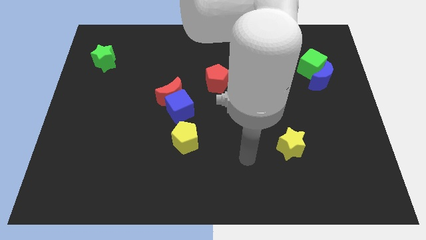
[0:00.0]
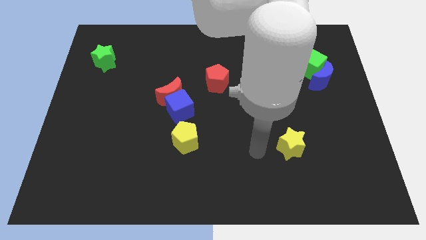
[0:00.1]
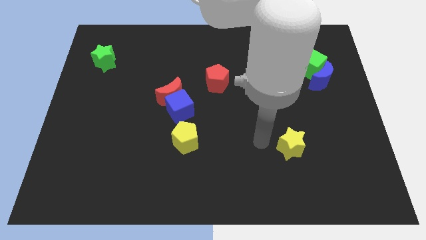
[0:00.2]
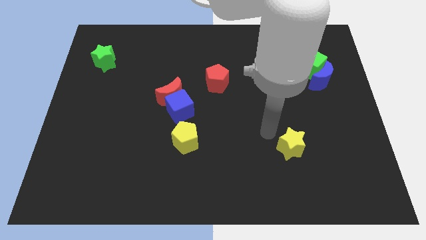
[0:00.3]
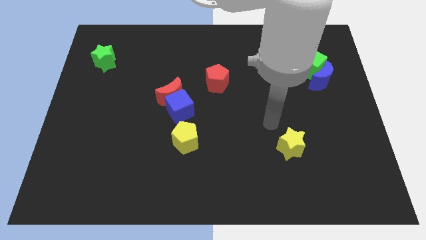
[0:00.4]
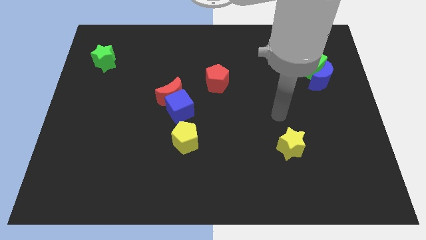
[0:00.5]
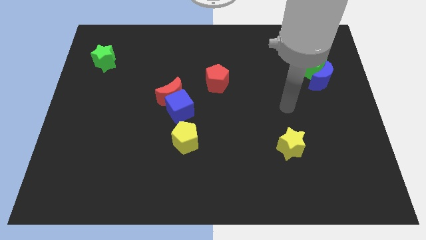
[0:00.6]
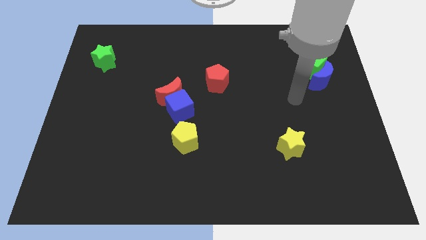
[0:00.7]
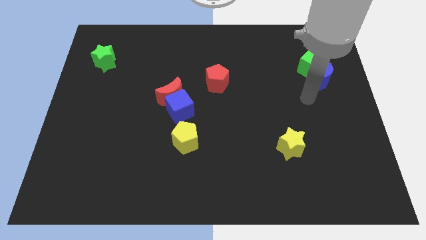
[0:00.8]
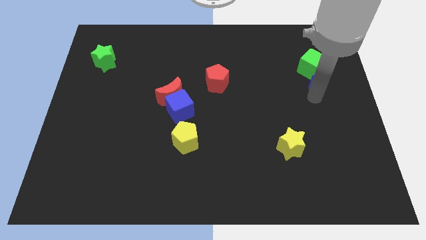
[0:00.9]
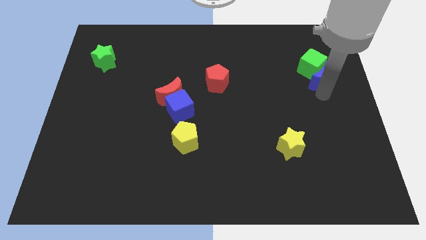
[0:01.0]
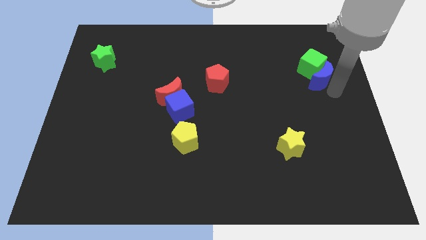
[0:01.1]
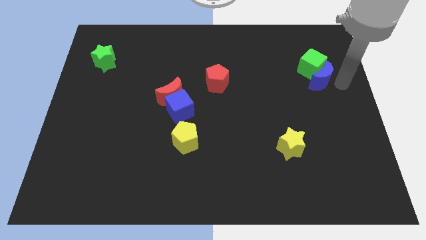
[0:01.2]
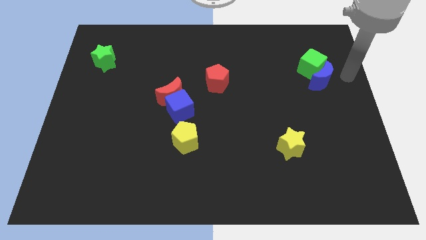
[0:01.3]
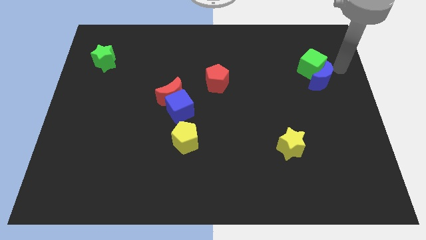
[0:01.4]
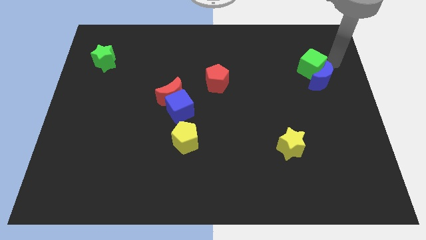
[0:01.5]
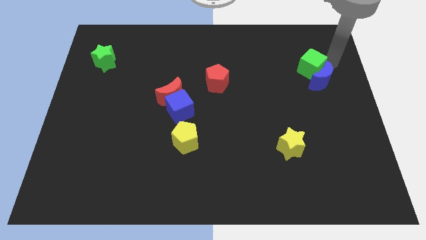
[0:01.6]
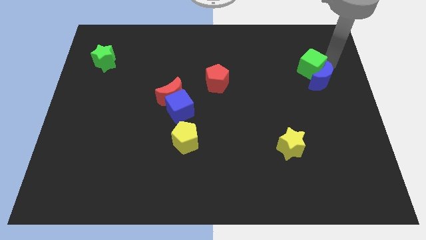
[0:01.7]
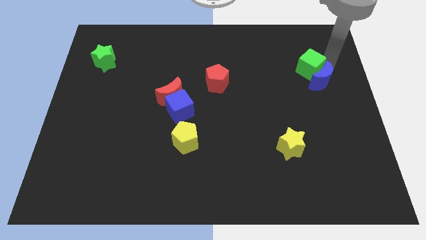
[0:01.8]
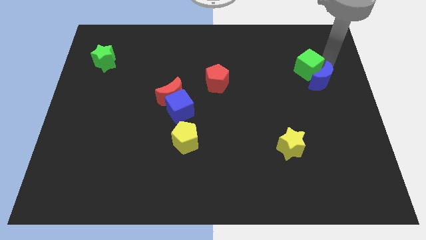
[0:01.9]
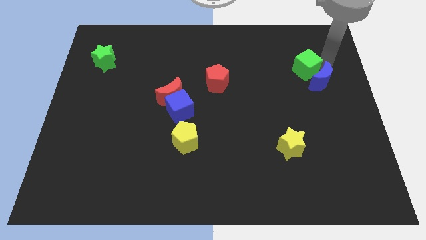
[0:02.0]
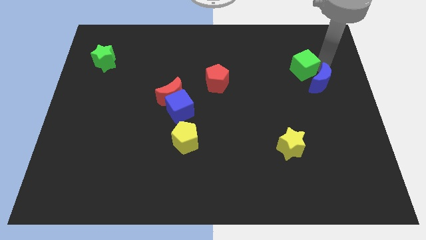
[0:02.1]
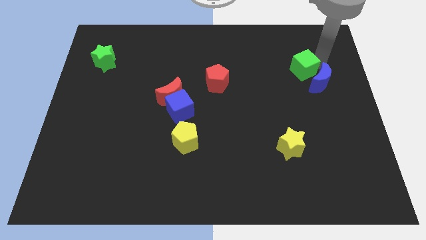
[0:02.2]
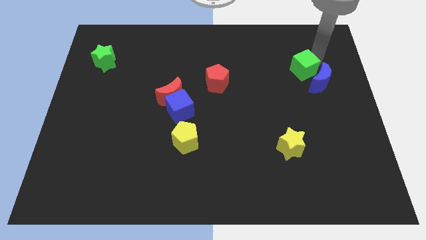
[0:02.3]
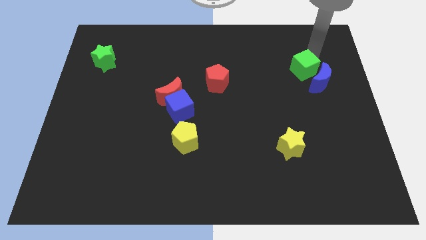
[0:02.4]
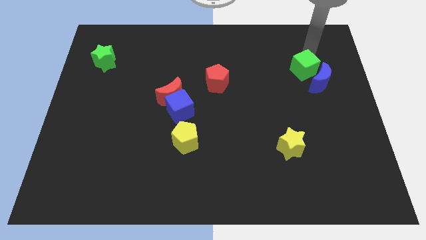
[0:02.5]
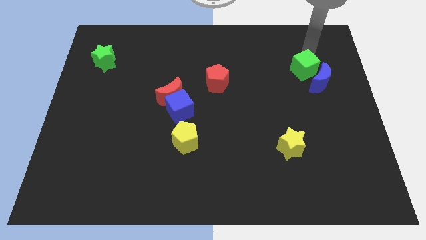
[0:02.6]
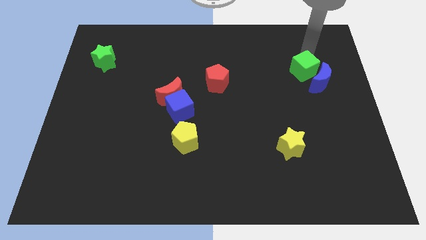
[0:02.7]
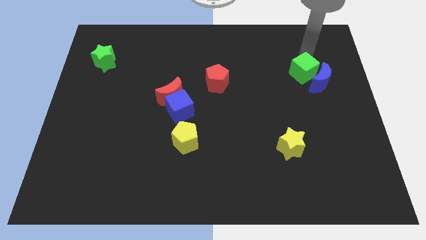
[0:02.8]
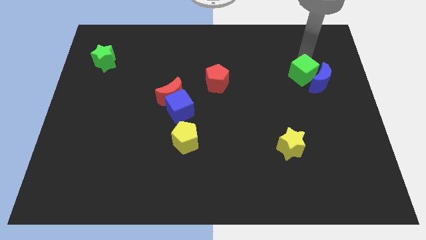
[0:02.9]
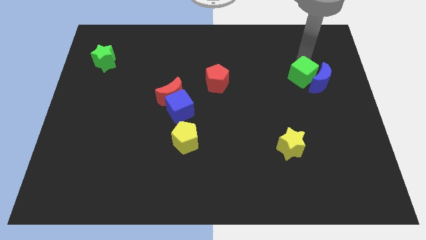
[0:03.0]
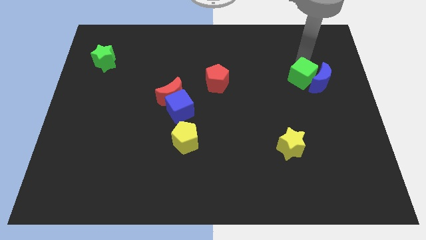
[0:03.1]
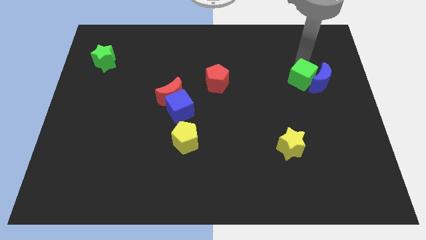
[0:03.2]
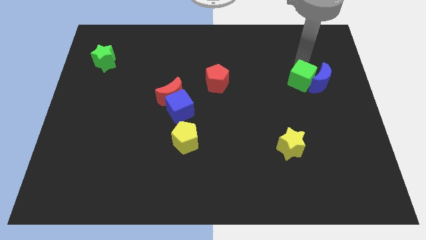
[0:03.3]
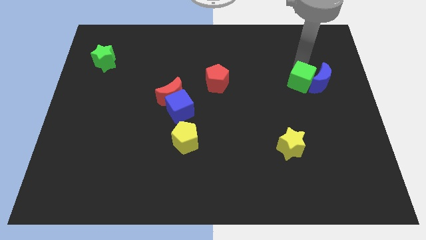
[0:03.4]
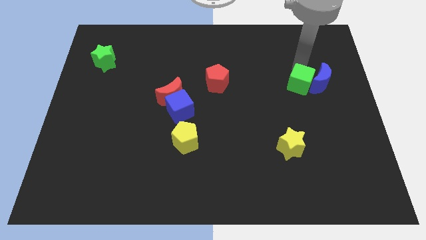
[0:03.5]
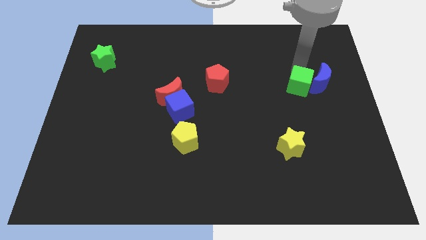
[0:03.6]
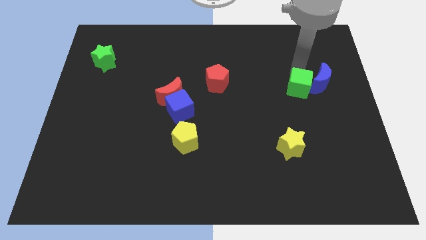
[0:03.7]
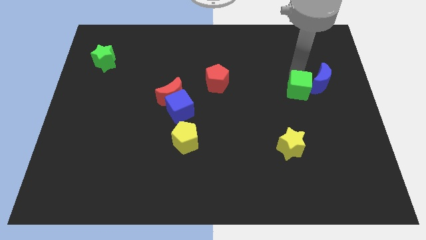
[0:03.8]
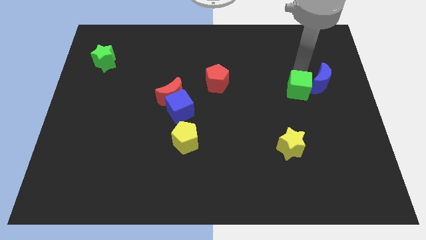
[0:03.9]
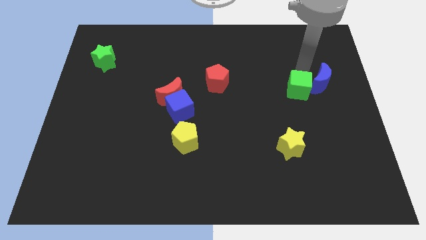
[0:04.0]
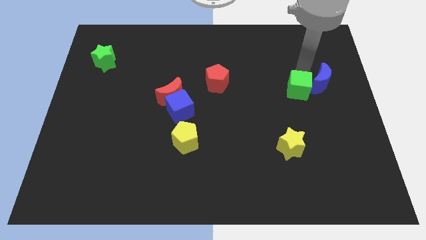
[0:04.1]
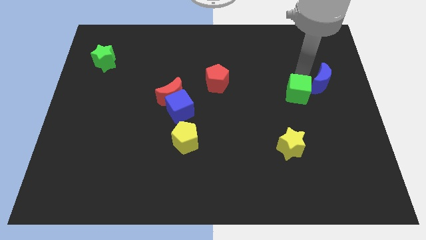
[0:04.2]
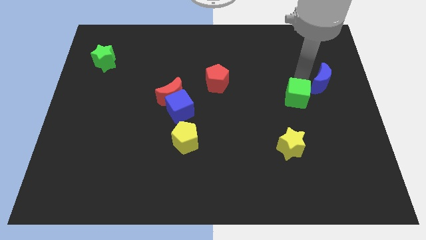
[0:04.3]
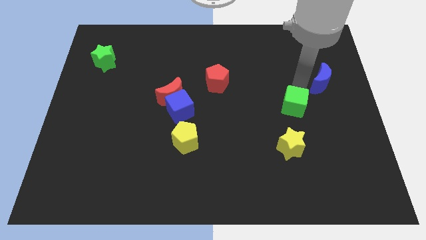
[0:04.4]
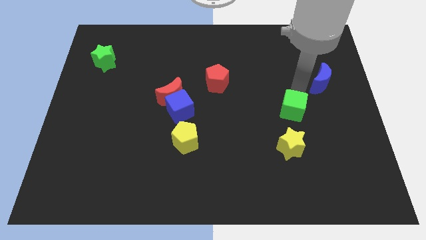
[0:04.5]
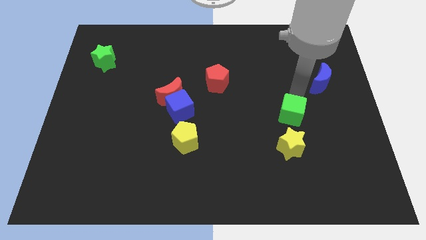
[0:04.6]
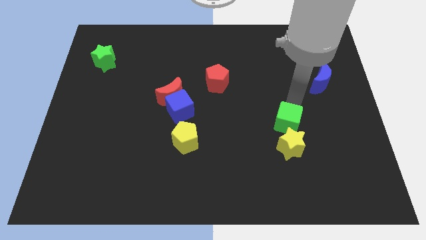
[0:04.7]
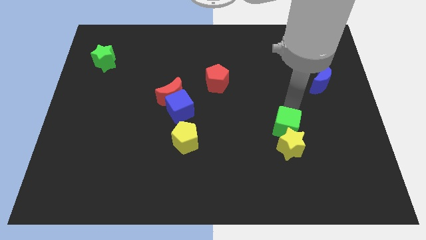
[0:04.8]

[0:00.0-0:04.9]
put the green cube towards the yellow star

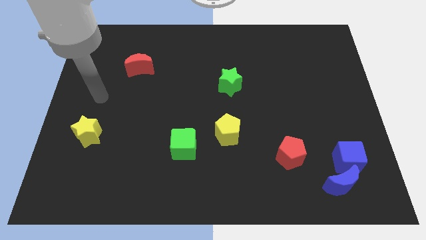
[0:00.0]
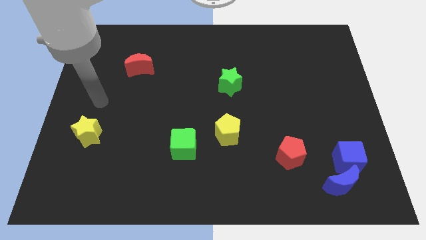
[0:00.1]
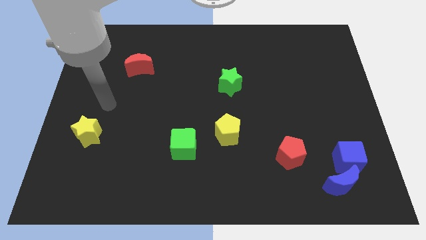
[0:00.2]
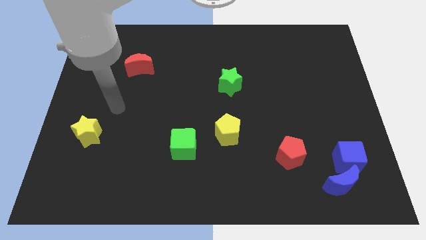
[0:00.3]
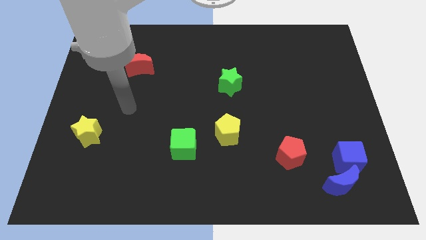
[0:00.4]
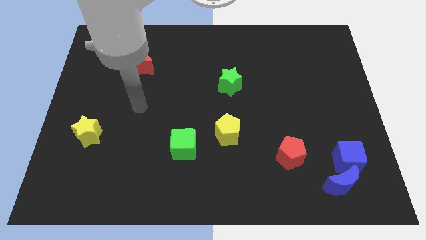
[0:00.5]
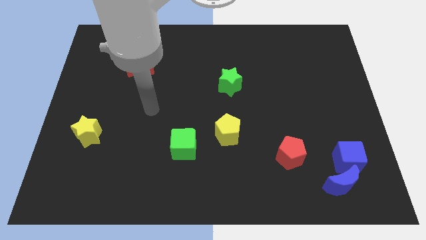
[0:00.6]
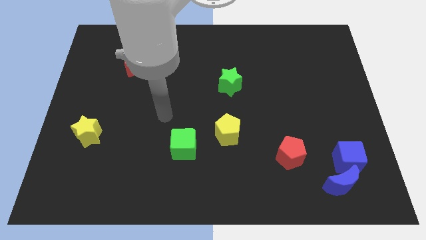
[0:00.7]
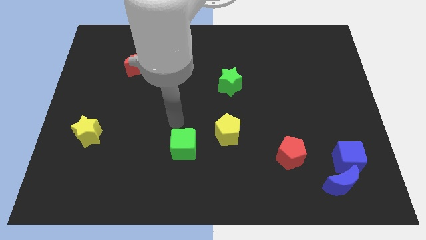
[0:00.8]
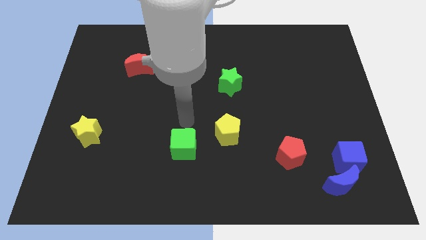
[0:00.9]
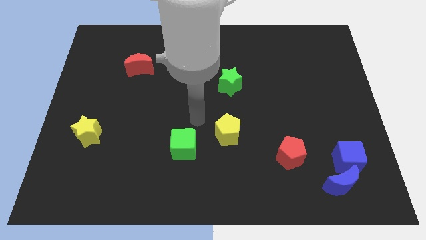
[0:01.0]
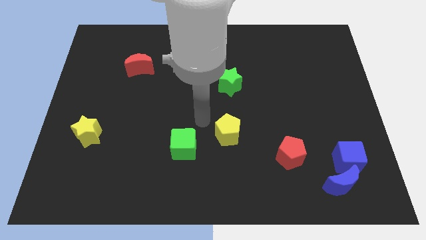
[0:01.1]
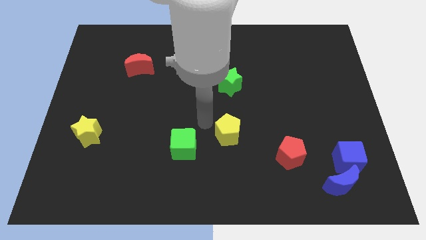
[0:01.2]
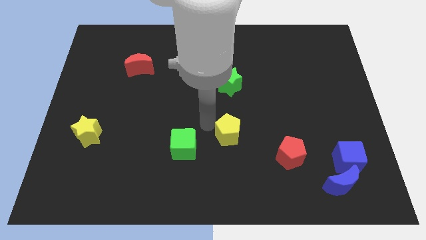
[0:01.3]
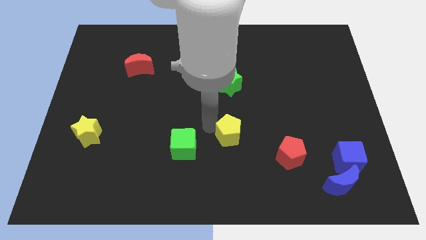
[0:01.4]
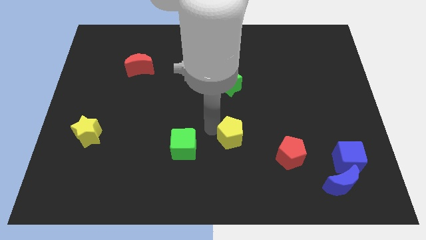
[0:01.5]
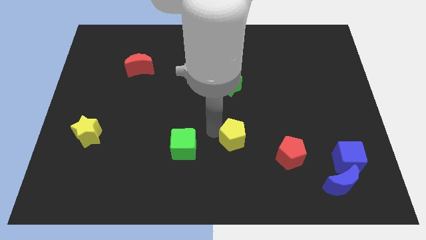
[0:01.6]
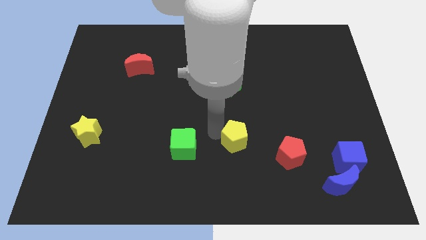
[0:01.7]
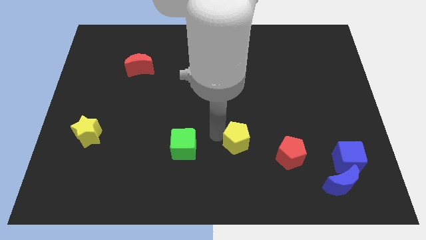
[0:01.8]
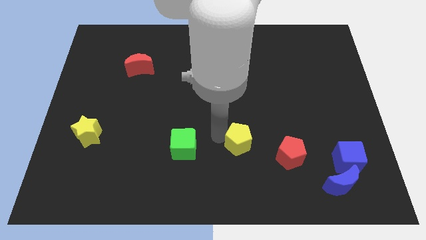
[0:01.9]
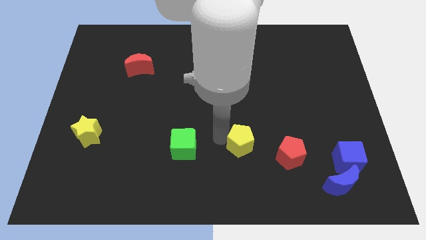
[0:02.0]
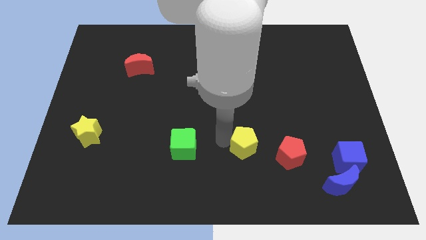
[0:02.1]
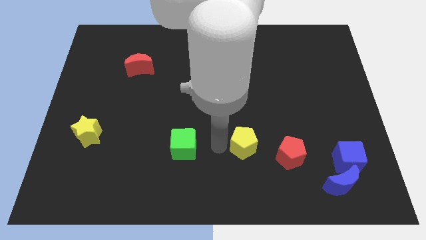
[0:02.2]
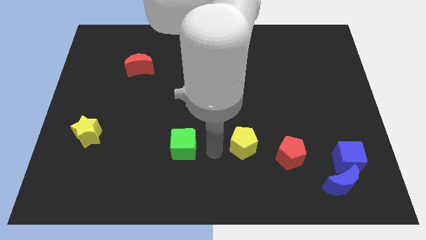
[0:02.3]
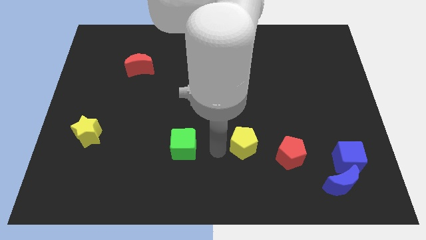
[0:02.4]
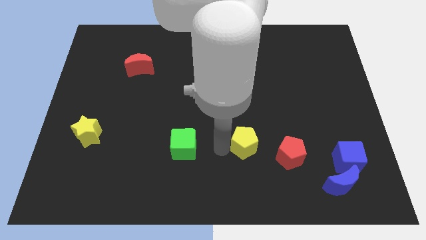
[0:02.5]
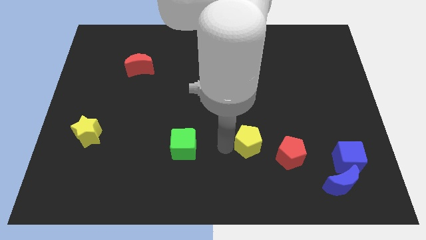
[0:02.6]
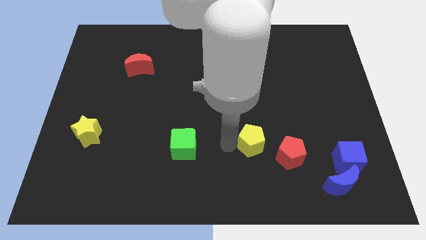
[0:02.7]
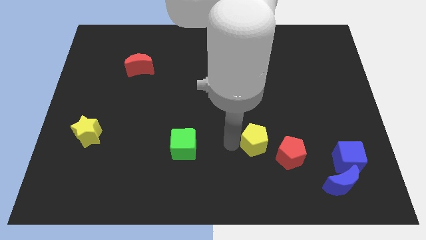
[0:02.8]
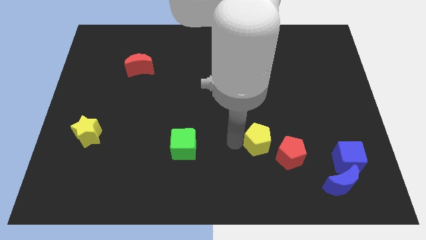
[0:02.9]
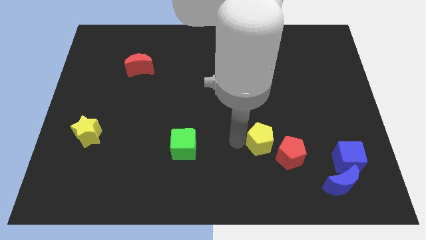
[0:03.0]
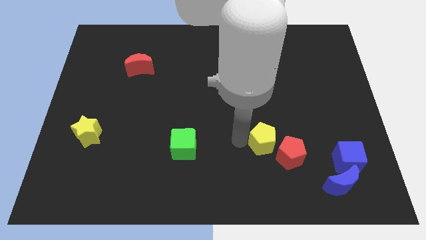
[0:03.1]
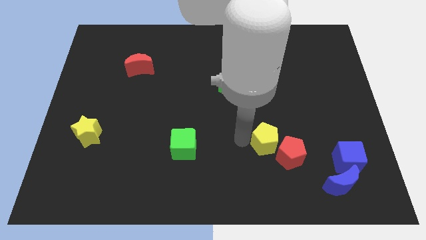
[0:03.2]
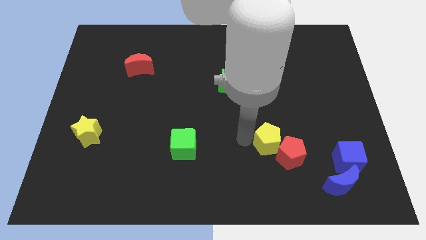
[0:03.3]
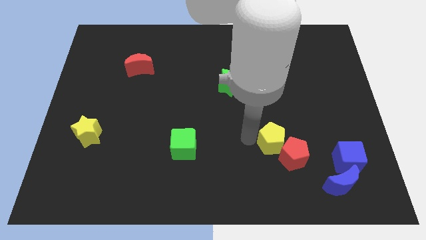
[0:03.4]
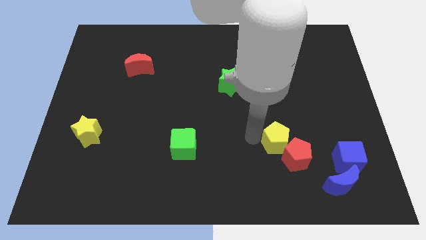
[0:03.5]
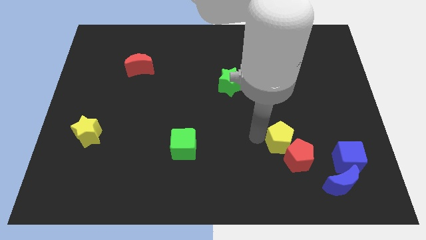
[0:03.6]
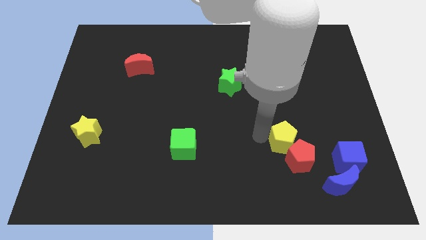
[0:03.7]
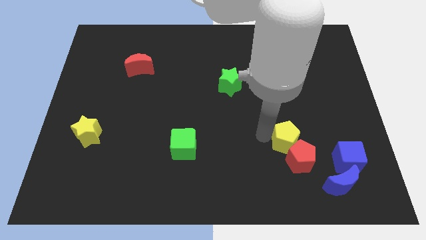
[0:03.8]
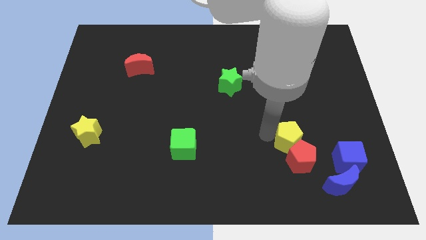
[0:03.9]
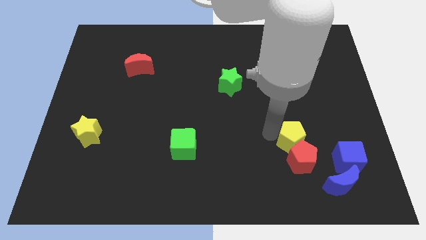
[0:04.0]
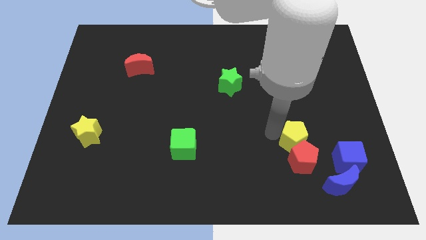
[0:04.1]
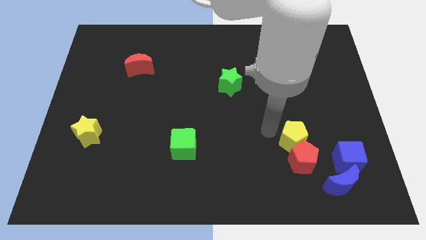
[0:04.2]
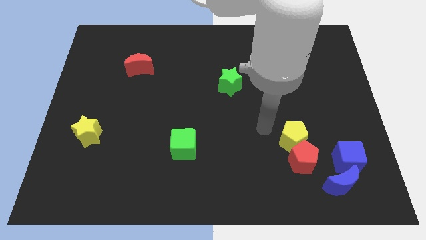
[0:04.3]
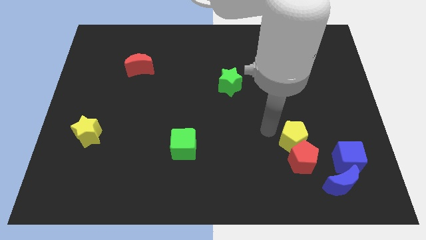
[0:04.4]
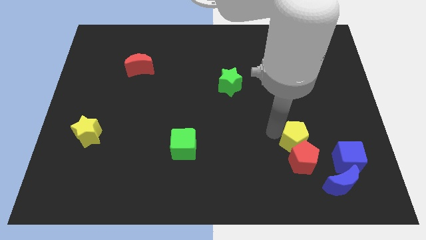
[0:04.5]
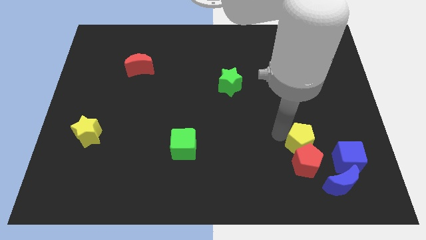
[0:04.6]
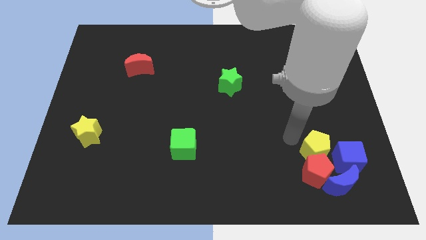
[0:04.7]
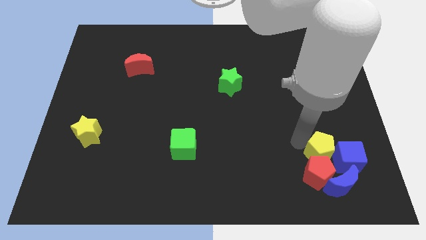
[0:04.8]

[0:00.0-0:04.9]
slide the yellow pentagon close to the blue cube
